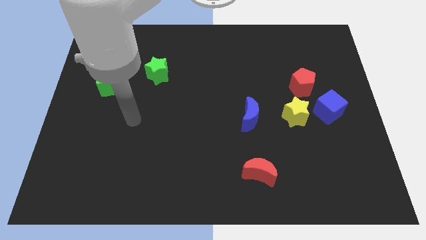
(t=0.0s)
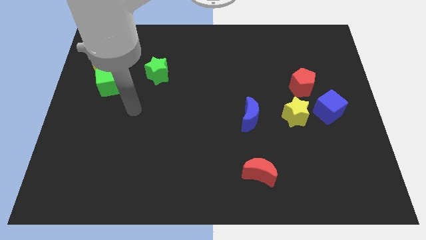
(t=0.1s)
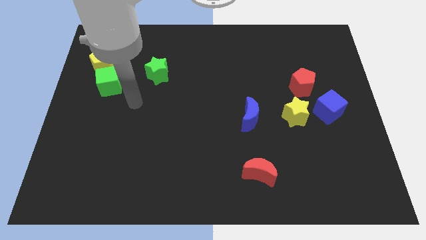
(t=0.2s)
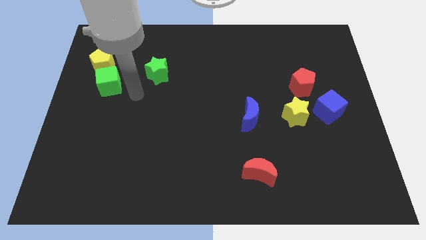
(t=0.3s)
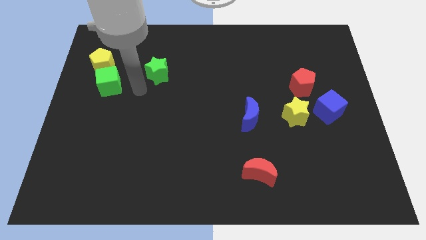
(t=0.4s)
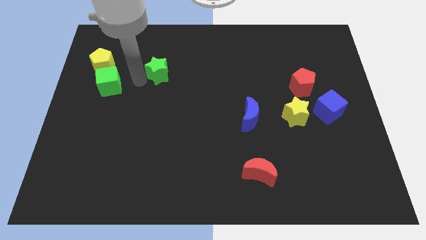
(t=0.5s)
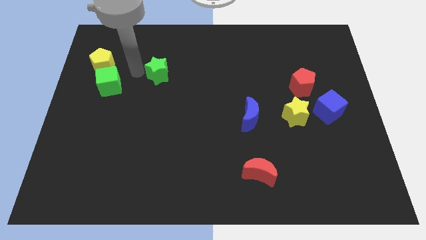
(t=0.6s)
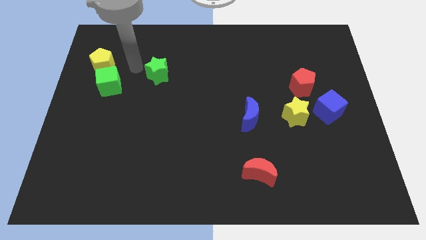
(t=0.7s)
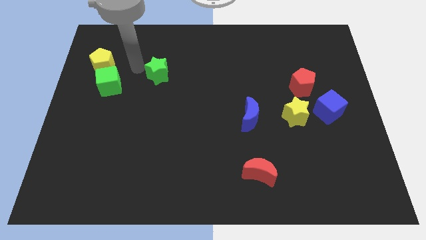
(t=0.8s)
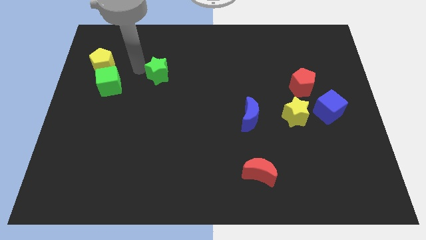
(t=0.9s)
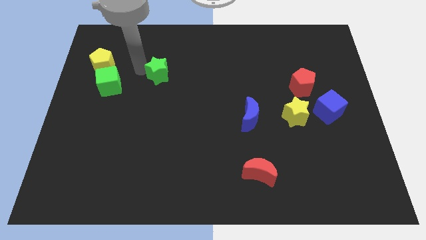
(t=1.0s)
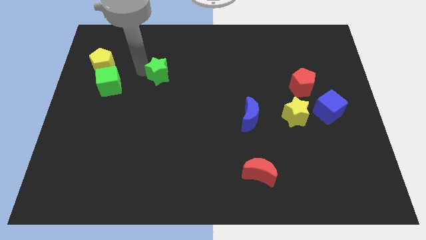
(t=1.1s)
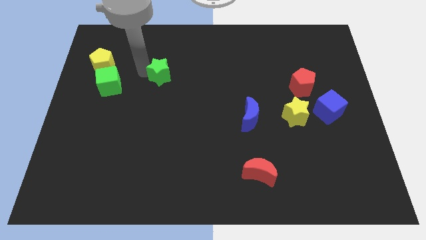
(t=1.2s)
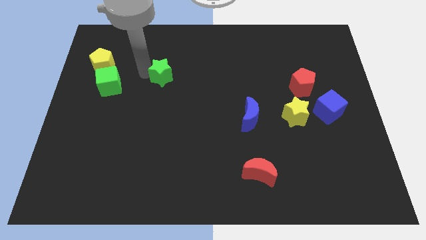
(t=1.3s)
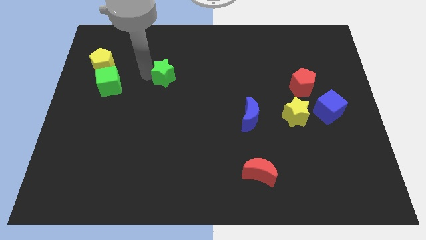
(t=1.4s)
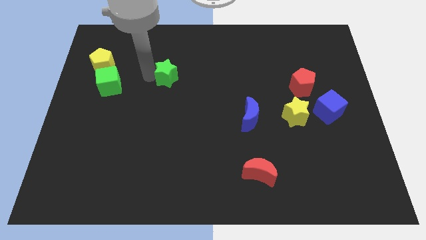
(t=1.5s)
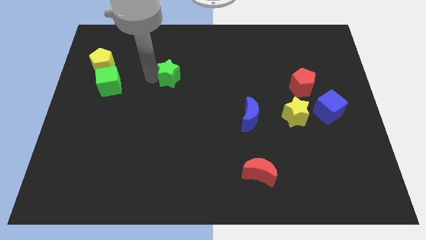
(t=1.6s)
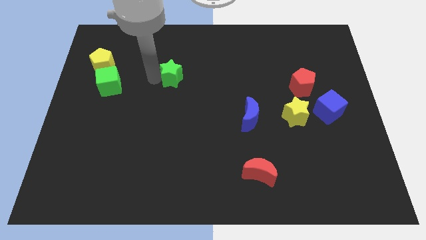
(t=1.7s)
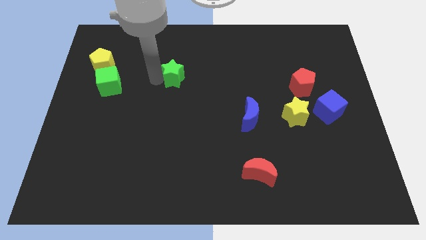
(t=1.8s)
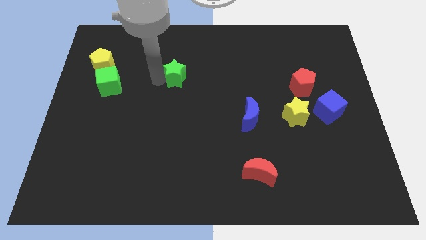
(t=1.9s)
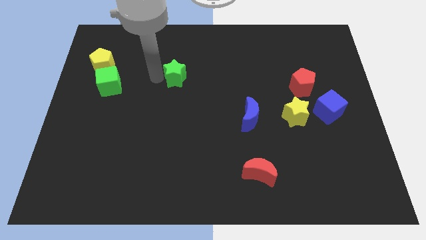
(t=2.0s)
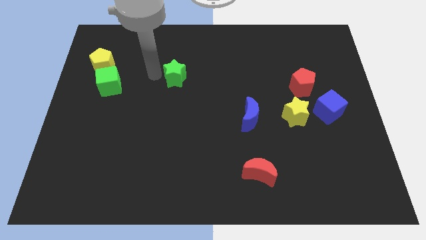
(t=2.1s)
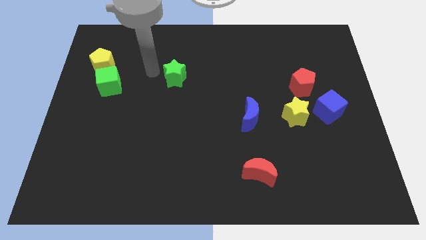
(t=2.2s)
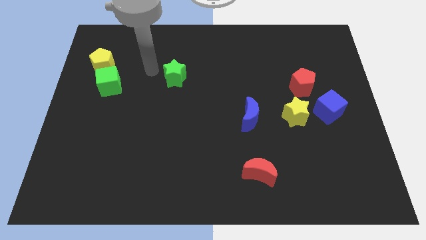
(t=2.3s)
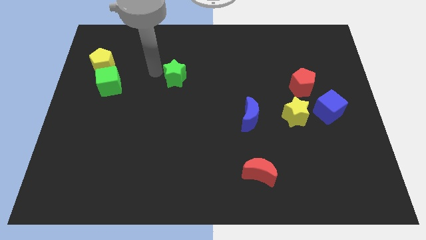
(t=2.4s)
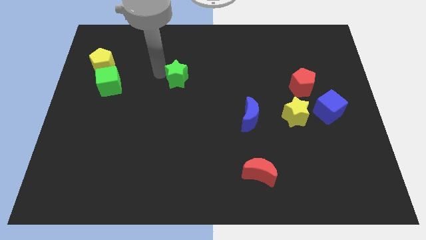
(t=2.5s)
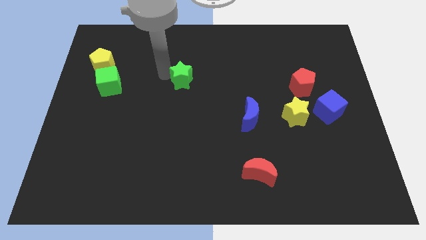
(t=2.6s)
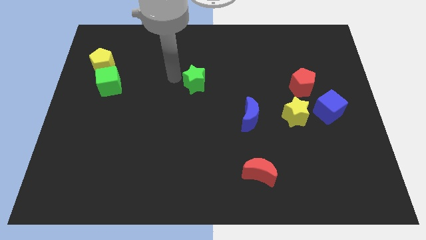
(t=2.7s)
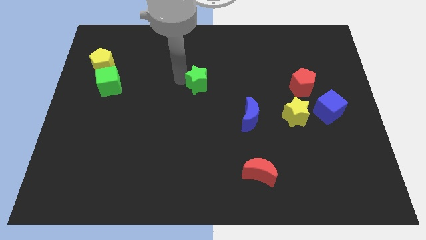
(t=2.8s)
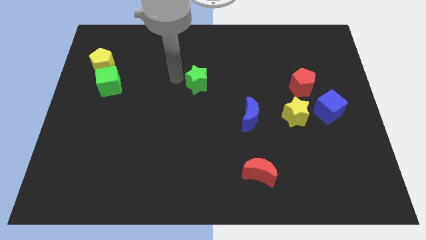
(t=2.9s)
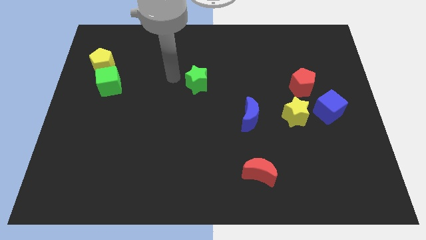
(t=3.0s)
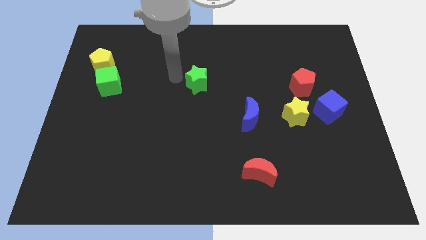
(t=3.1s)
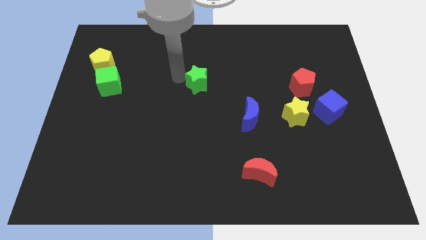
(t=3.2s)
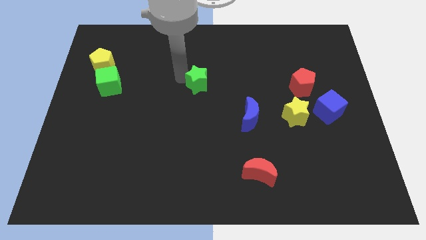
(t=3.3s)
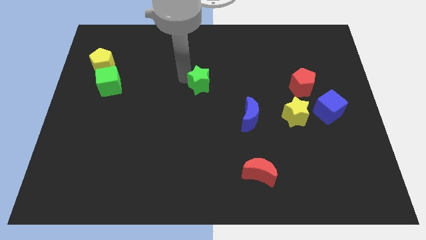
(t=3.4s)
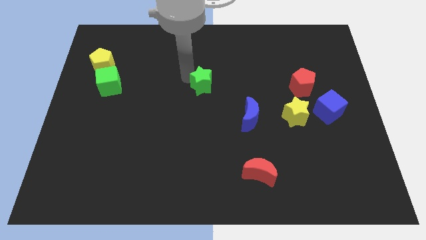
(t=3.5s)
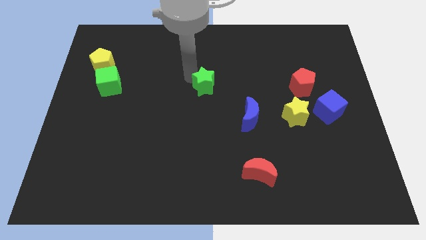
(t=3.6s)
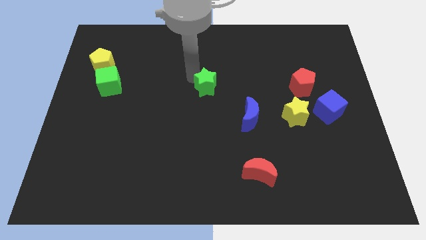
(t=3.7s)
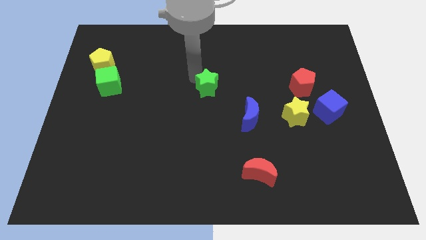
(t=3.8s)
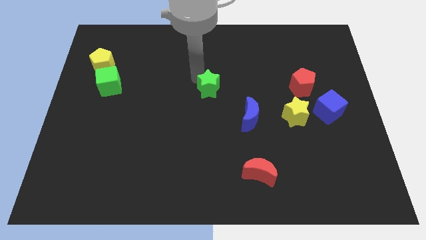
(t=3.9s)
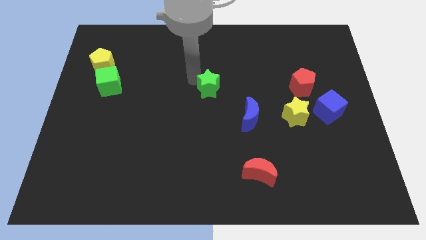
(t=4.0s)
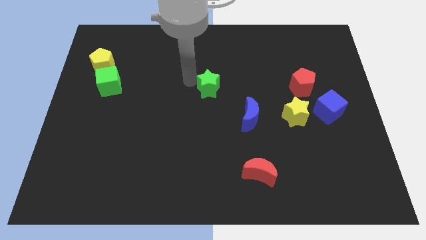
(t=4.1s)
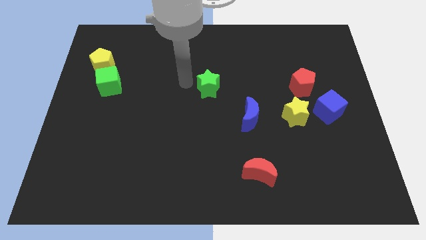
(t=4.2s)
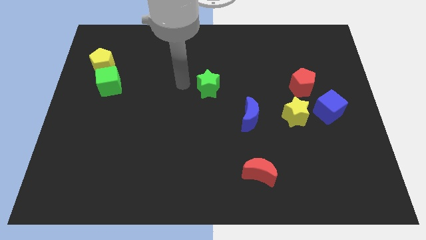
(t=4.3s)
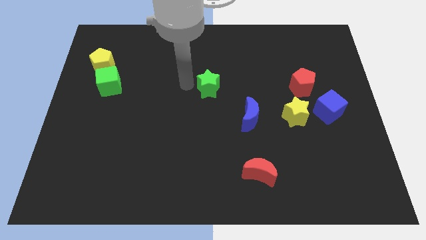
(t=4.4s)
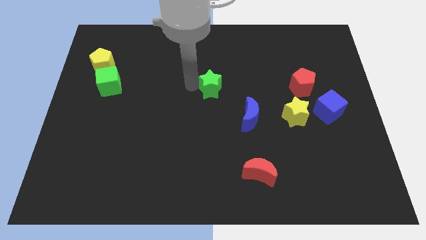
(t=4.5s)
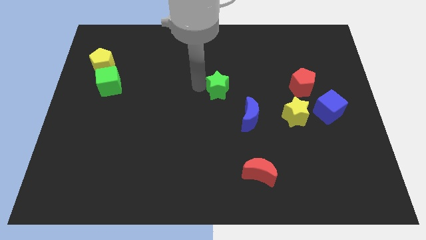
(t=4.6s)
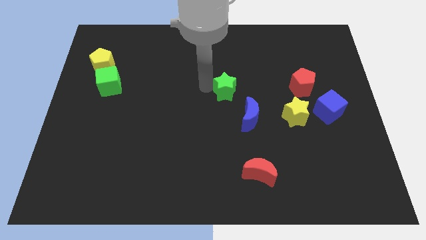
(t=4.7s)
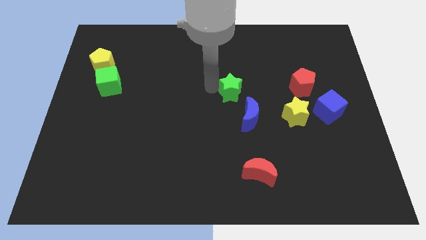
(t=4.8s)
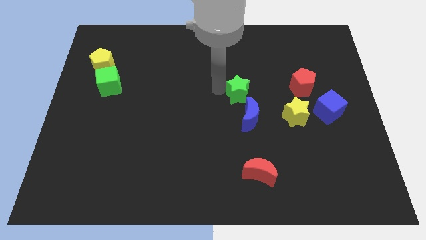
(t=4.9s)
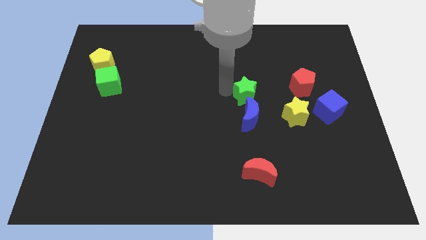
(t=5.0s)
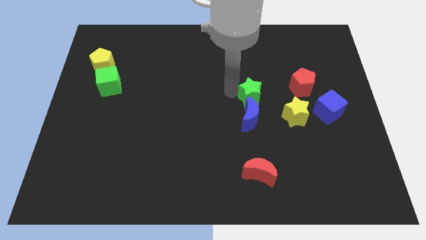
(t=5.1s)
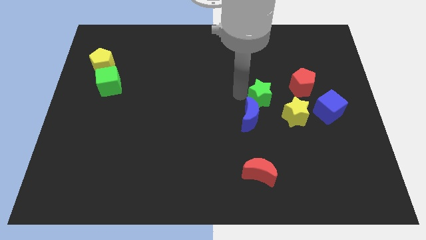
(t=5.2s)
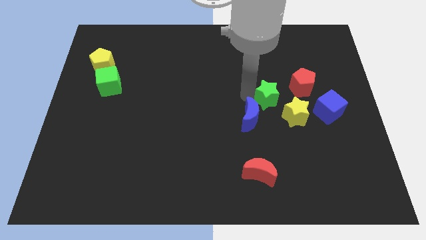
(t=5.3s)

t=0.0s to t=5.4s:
move the green star to the bottom left side of the red pentagon

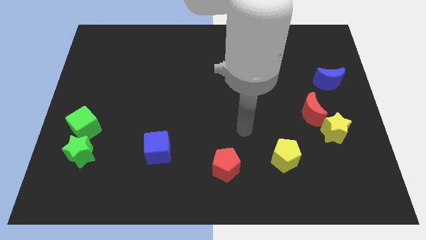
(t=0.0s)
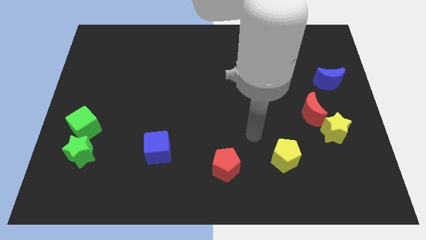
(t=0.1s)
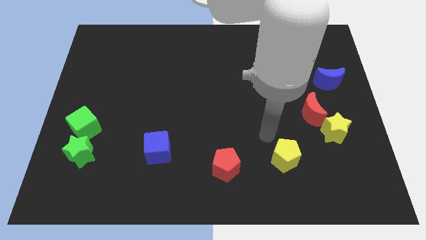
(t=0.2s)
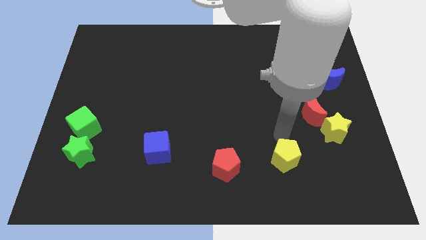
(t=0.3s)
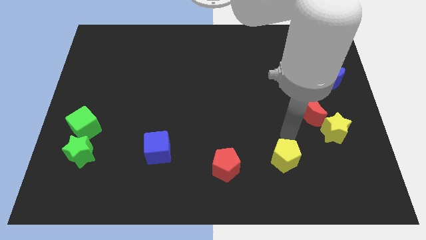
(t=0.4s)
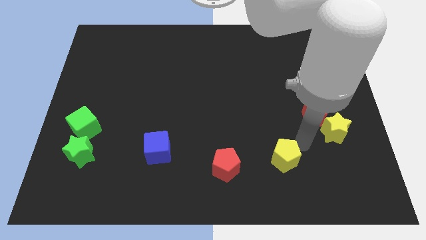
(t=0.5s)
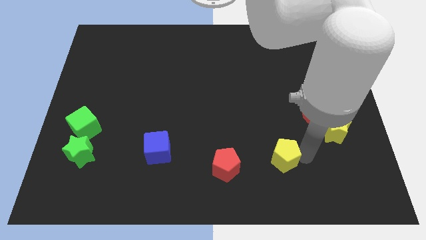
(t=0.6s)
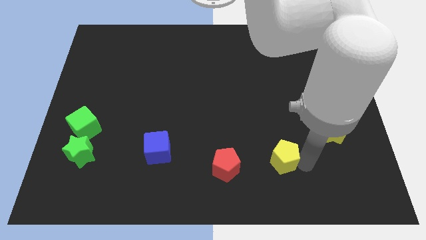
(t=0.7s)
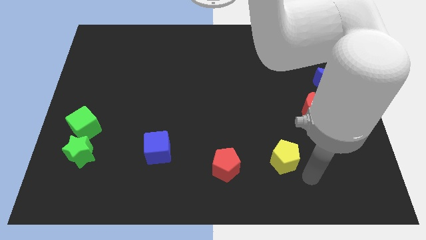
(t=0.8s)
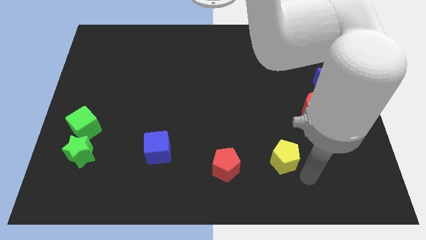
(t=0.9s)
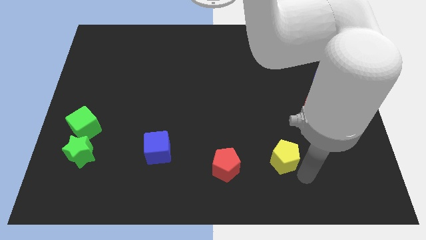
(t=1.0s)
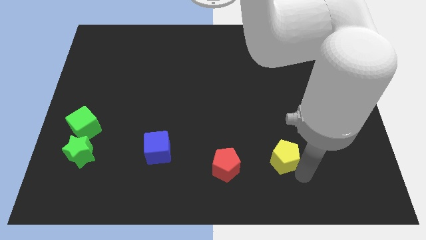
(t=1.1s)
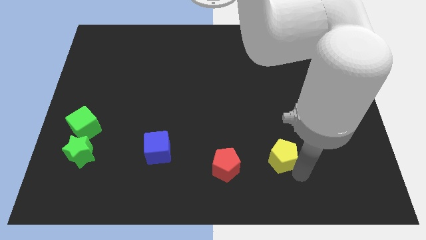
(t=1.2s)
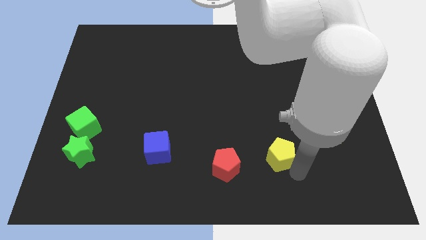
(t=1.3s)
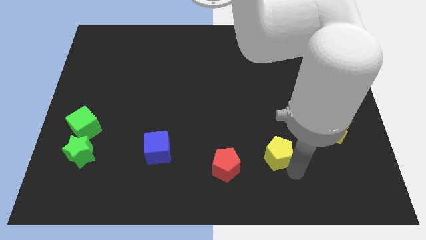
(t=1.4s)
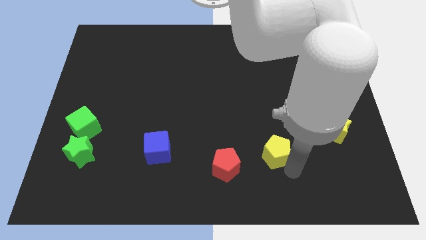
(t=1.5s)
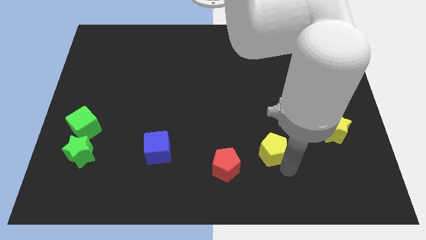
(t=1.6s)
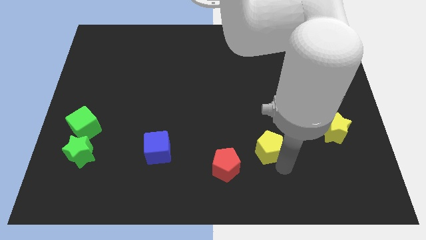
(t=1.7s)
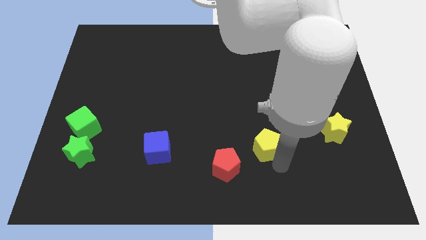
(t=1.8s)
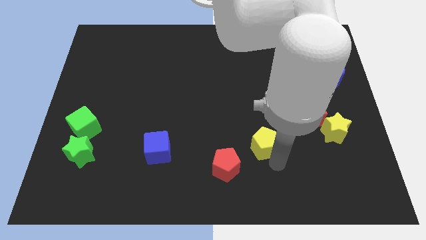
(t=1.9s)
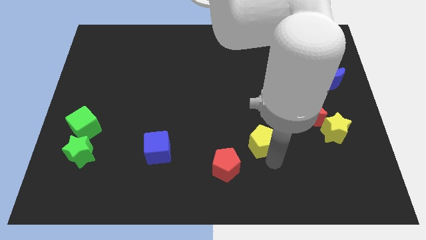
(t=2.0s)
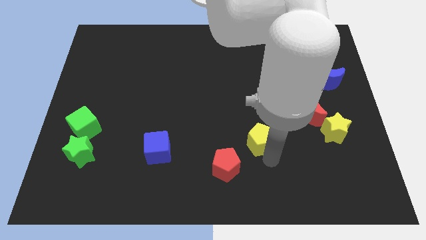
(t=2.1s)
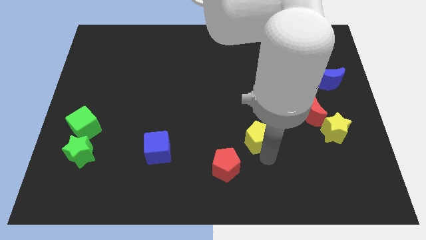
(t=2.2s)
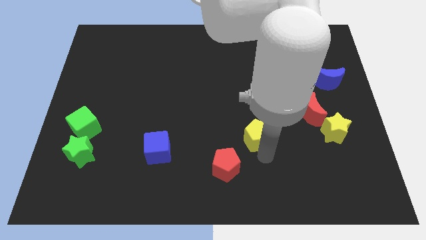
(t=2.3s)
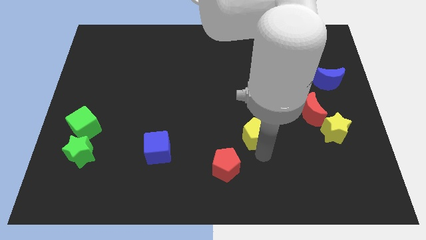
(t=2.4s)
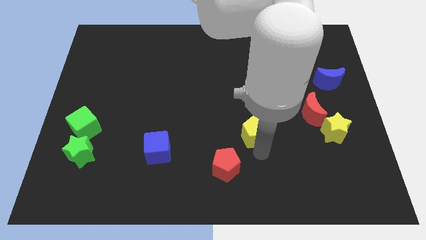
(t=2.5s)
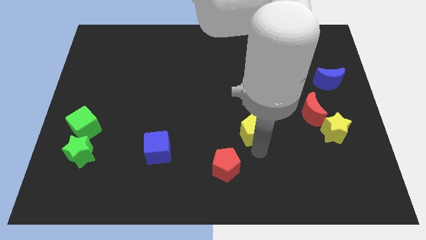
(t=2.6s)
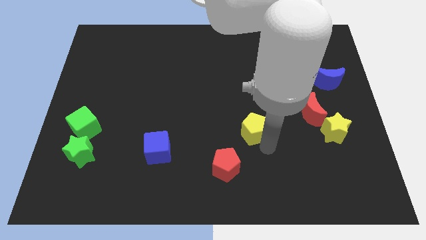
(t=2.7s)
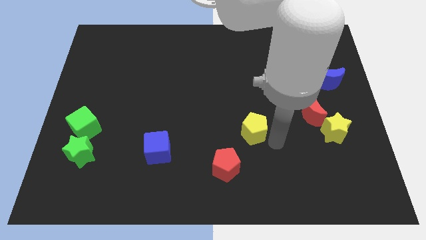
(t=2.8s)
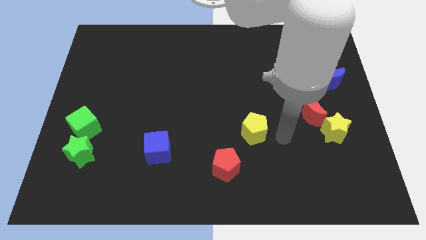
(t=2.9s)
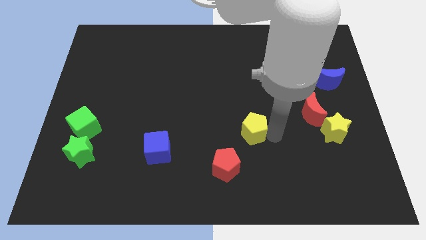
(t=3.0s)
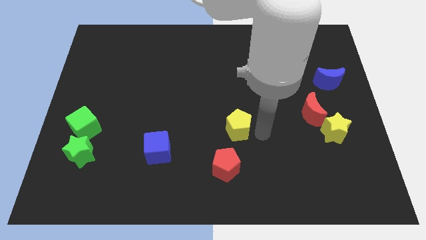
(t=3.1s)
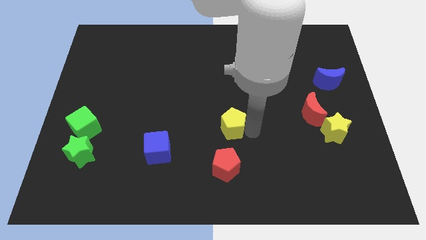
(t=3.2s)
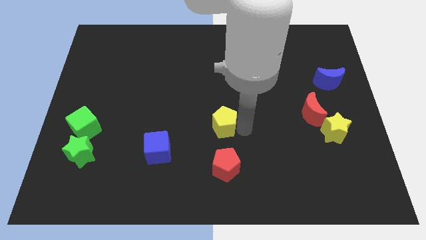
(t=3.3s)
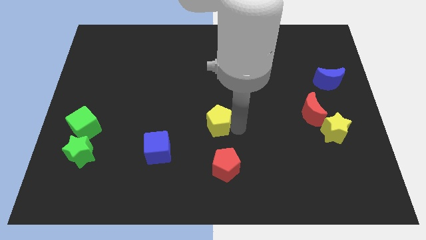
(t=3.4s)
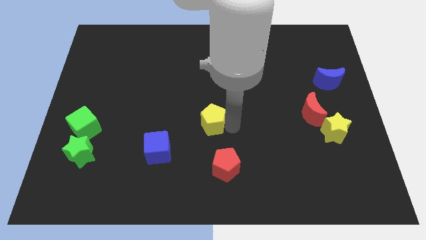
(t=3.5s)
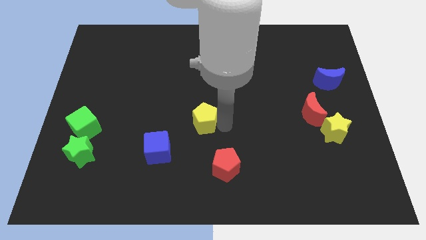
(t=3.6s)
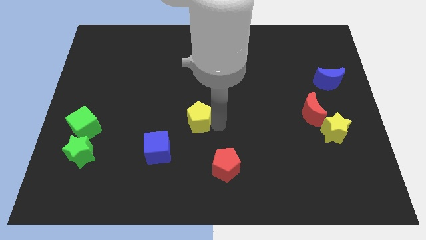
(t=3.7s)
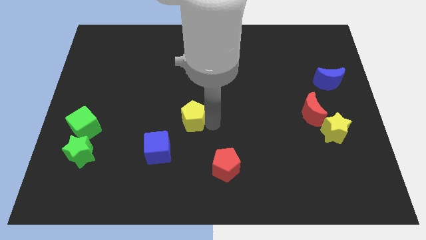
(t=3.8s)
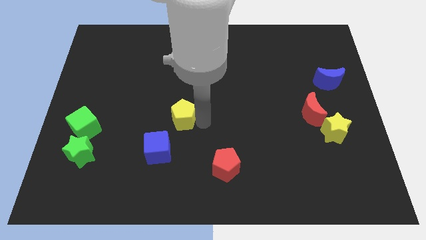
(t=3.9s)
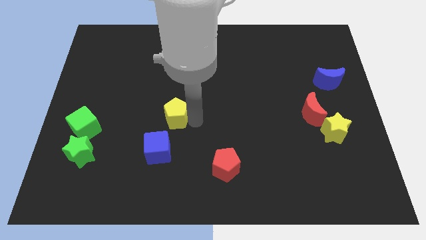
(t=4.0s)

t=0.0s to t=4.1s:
put the yellow pentagon to the top side of the blue cube
